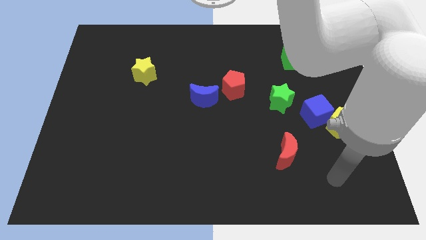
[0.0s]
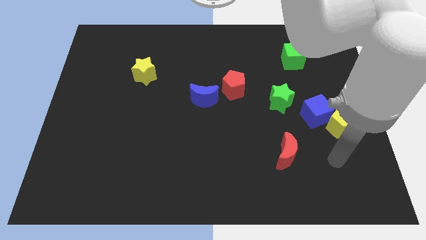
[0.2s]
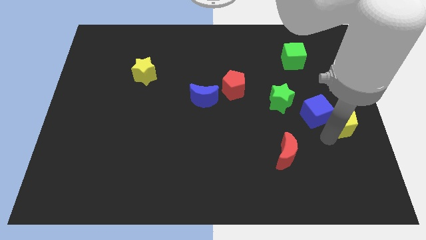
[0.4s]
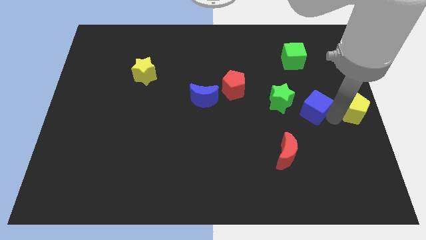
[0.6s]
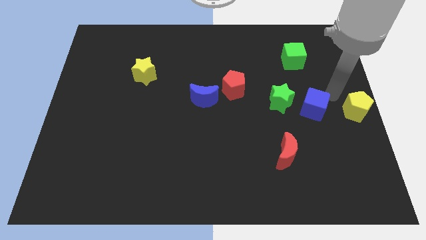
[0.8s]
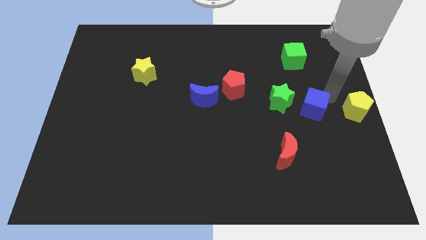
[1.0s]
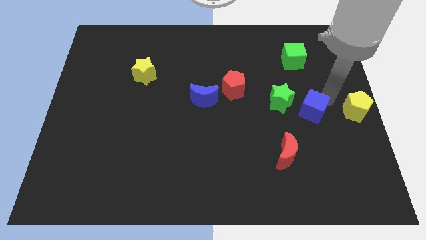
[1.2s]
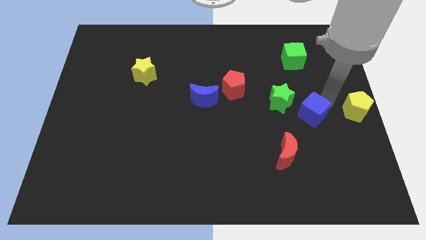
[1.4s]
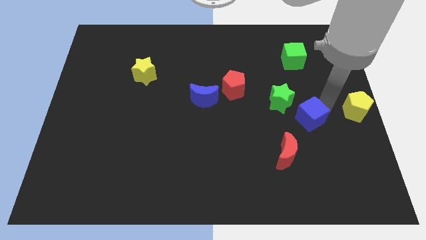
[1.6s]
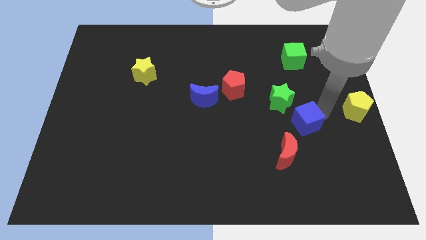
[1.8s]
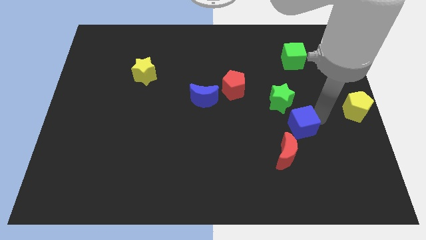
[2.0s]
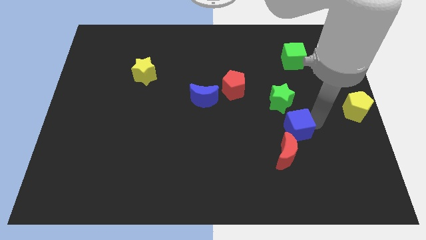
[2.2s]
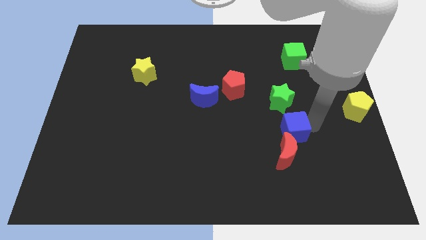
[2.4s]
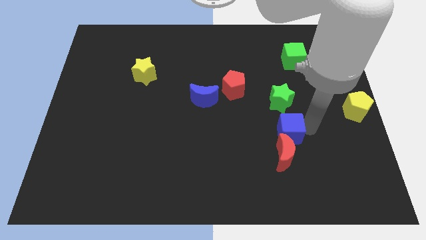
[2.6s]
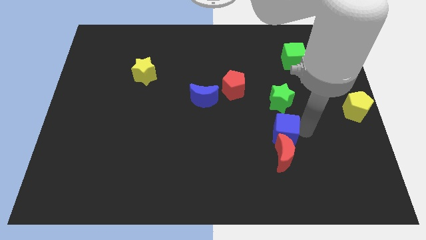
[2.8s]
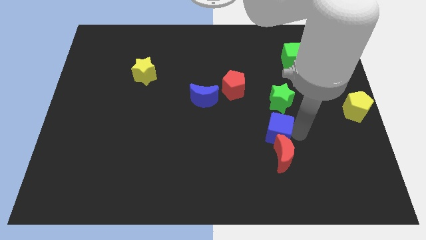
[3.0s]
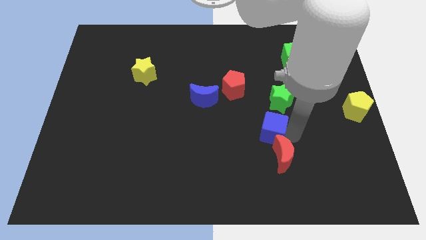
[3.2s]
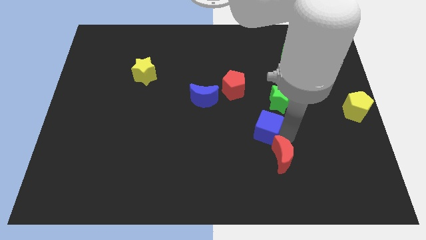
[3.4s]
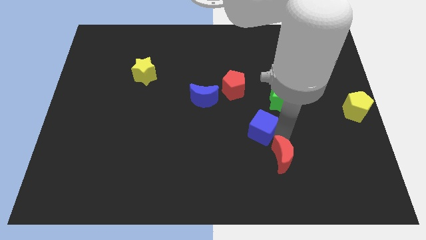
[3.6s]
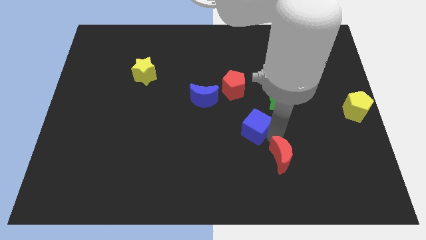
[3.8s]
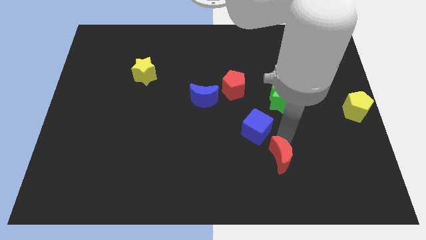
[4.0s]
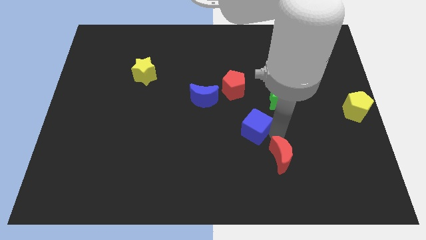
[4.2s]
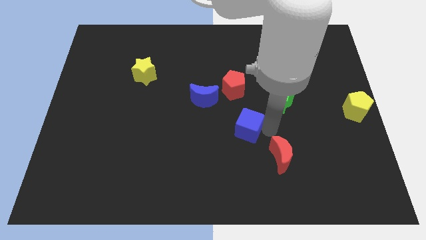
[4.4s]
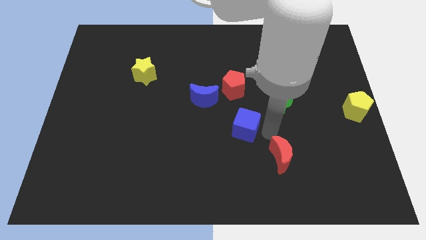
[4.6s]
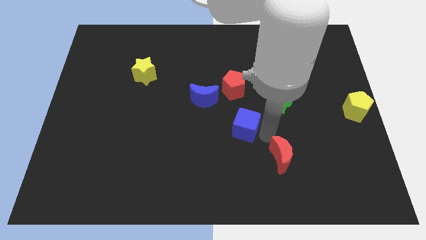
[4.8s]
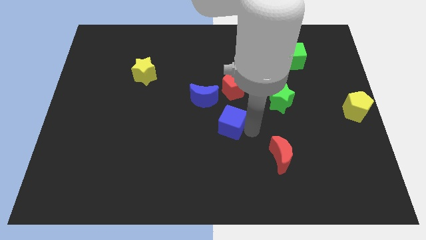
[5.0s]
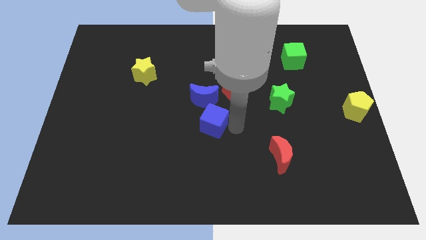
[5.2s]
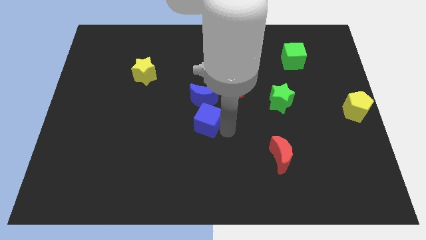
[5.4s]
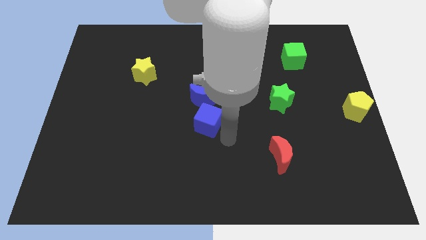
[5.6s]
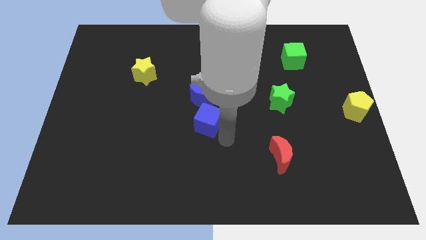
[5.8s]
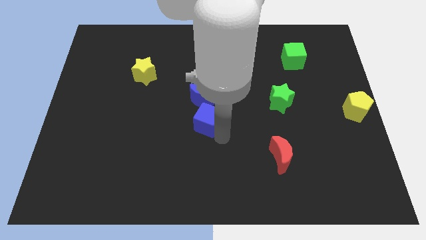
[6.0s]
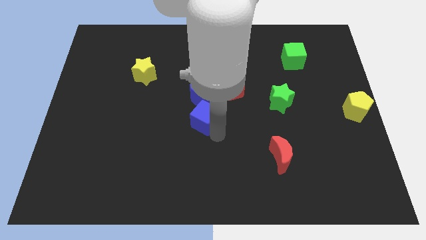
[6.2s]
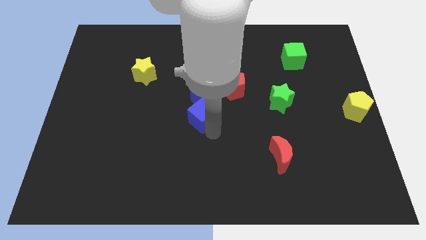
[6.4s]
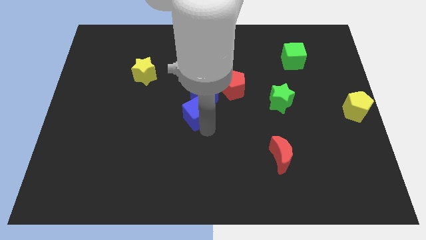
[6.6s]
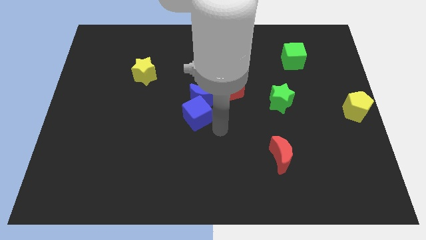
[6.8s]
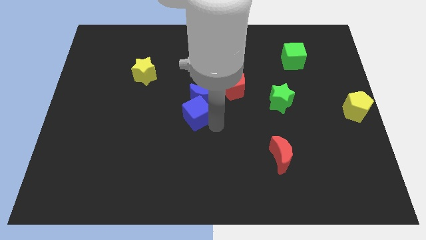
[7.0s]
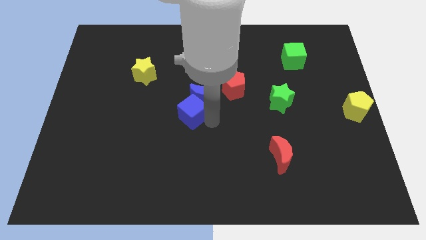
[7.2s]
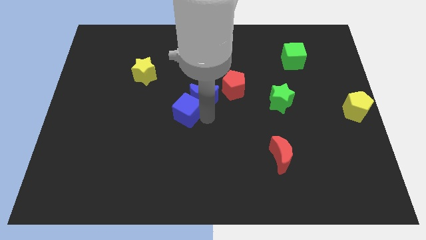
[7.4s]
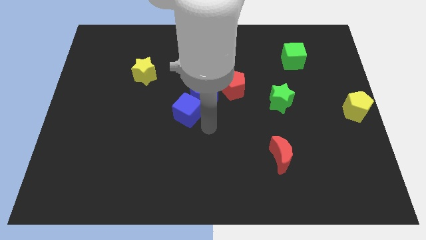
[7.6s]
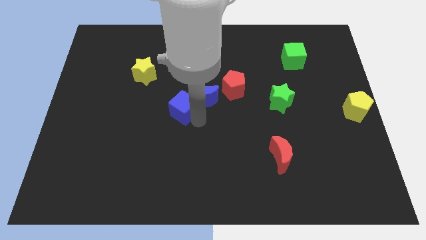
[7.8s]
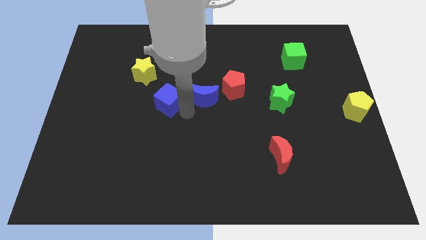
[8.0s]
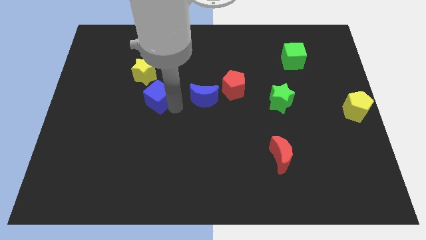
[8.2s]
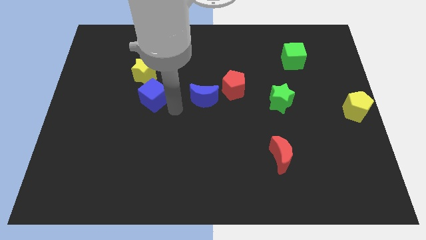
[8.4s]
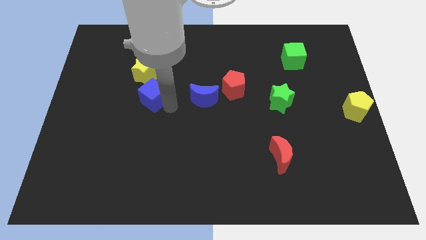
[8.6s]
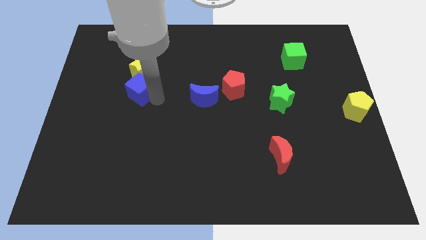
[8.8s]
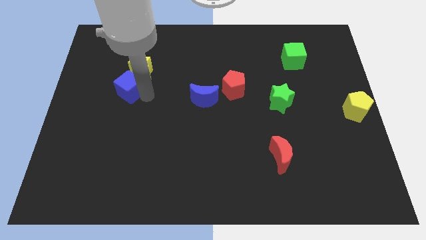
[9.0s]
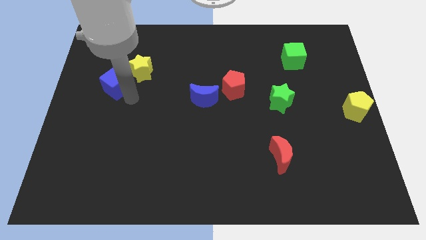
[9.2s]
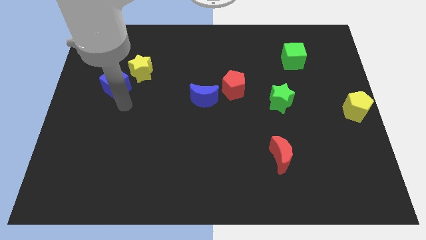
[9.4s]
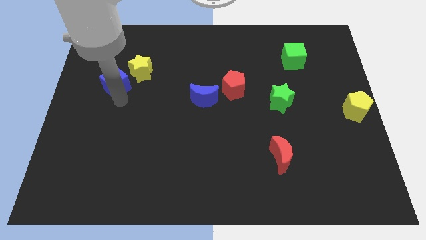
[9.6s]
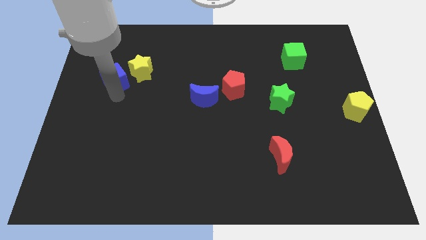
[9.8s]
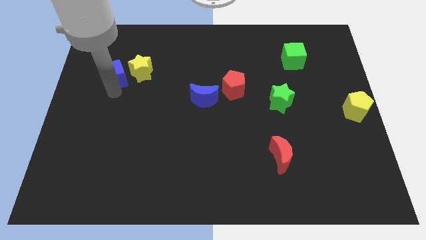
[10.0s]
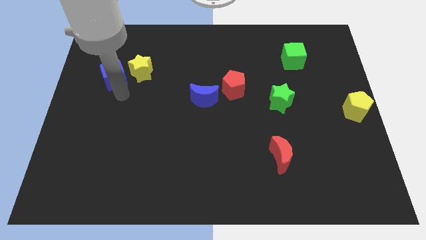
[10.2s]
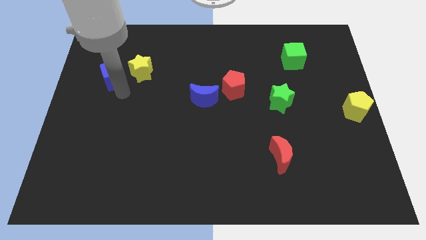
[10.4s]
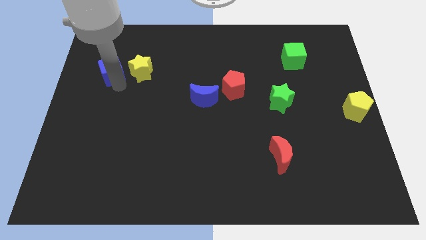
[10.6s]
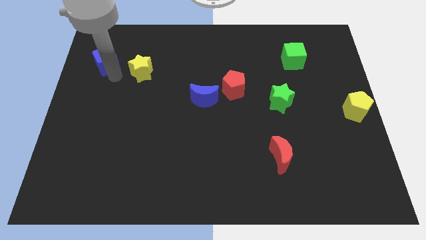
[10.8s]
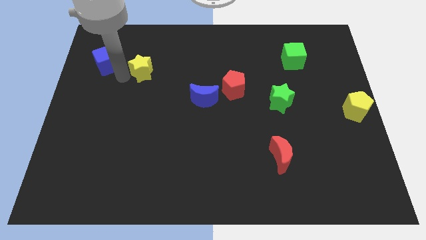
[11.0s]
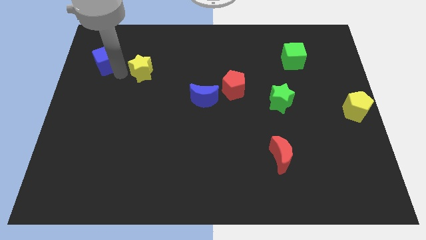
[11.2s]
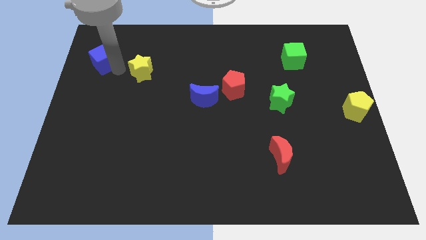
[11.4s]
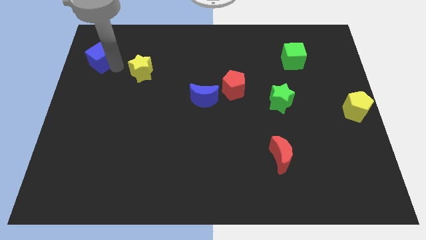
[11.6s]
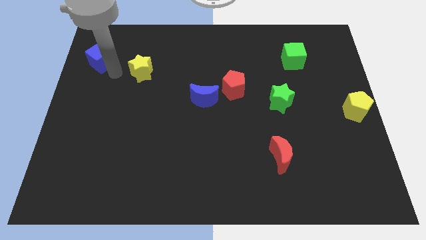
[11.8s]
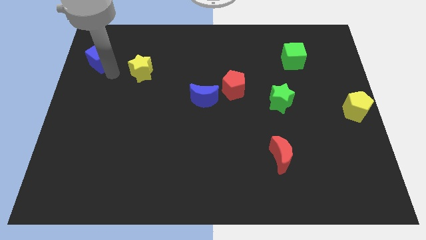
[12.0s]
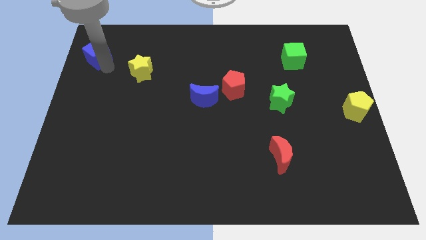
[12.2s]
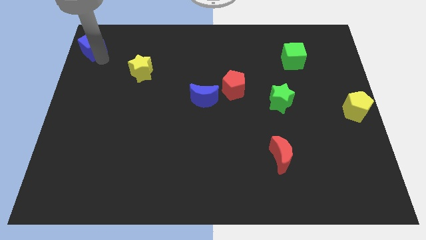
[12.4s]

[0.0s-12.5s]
push the blue cube to the top left of the board
